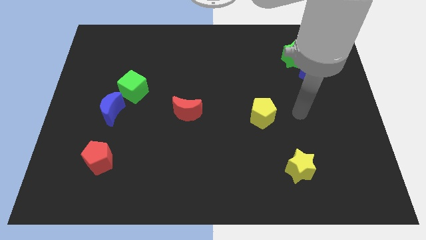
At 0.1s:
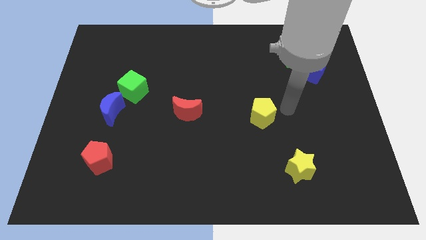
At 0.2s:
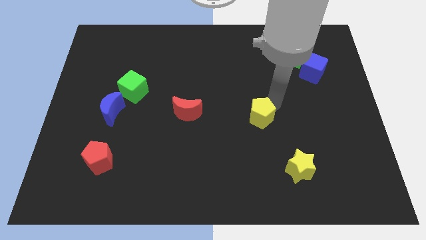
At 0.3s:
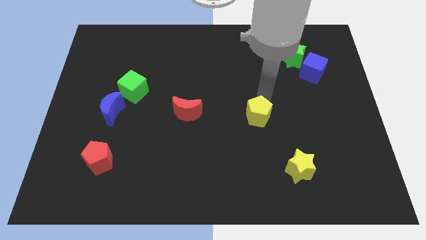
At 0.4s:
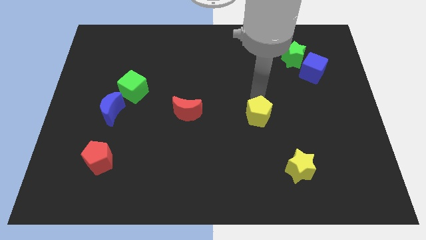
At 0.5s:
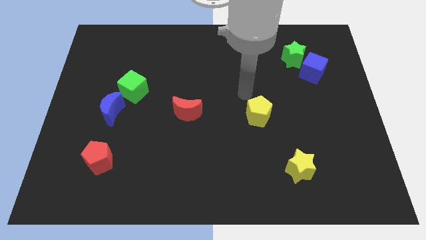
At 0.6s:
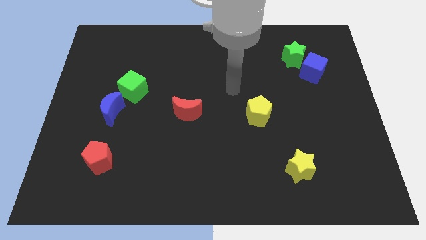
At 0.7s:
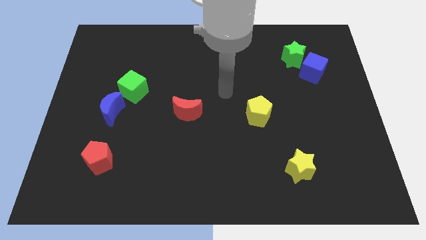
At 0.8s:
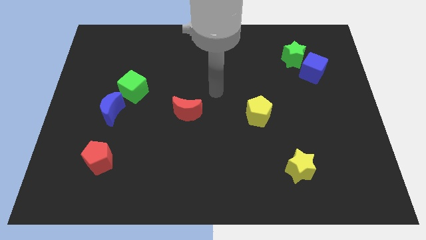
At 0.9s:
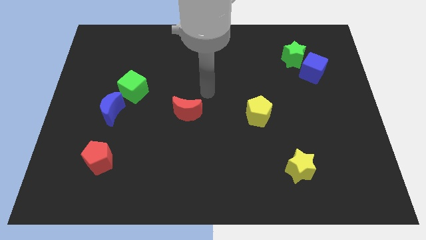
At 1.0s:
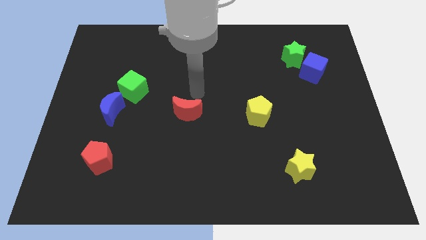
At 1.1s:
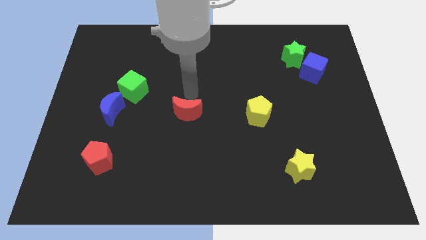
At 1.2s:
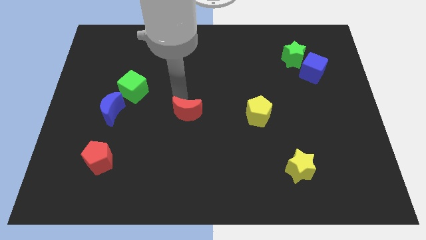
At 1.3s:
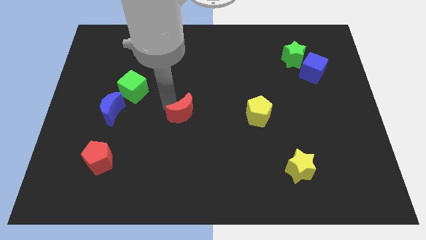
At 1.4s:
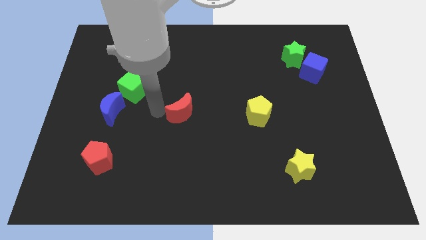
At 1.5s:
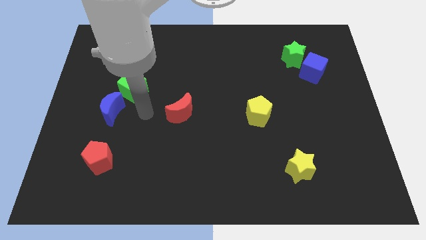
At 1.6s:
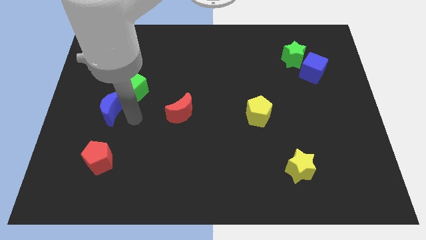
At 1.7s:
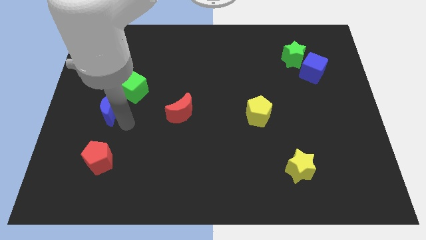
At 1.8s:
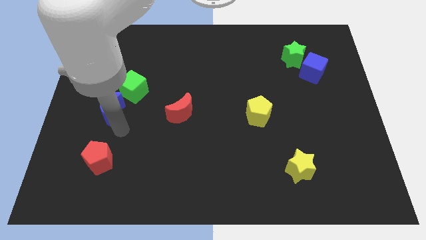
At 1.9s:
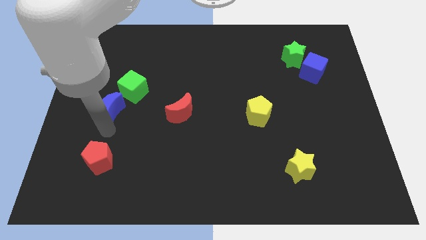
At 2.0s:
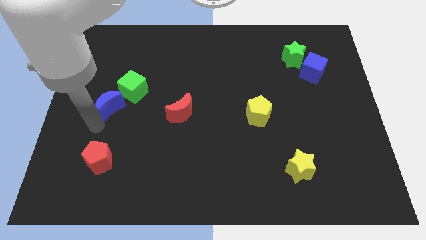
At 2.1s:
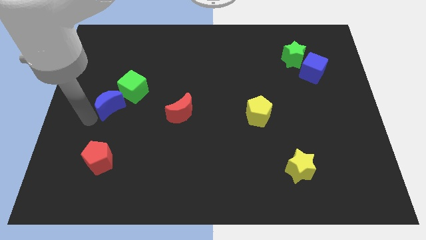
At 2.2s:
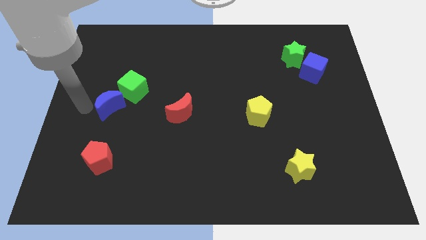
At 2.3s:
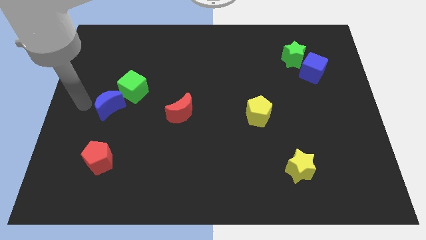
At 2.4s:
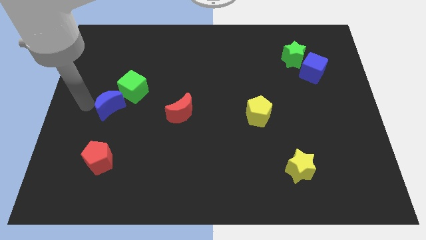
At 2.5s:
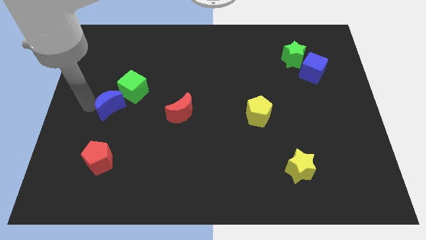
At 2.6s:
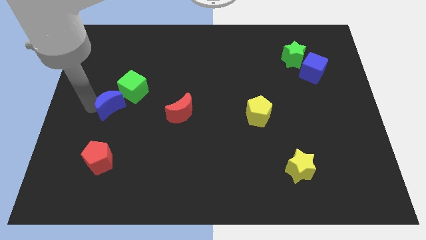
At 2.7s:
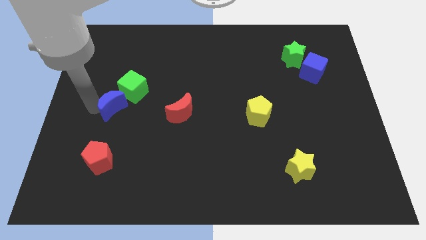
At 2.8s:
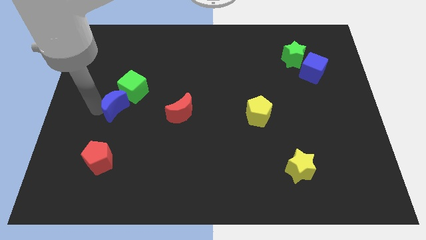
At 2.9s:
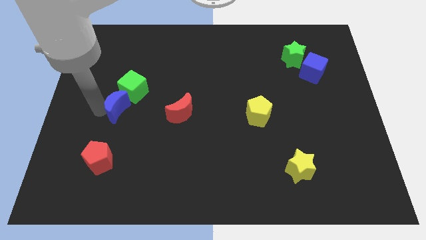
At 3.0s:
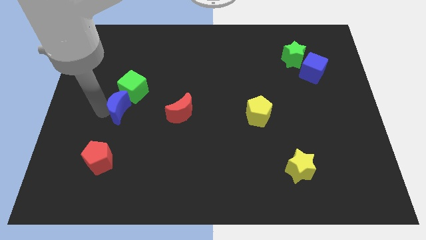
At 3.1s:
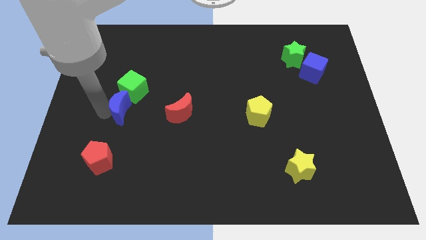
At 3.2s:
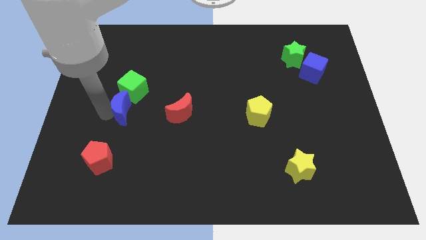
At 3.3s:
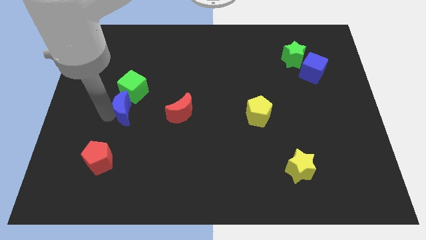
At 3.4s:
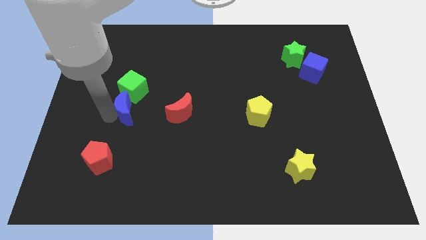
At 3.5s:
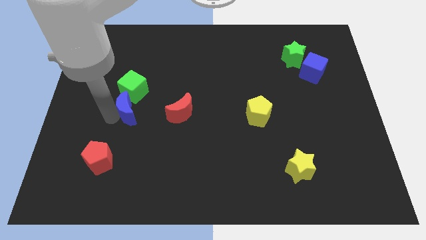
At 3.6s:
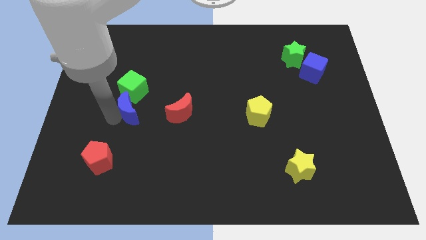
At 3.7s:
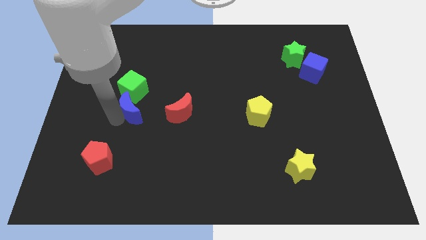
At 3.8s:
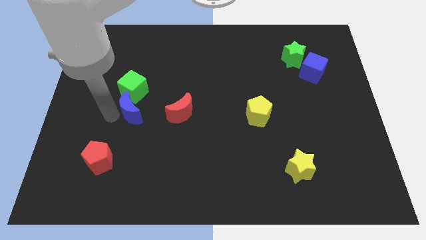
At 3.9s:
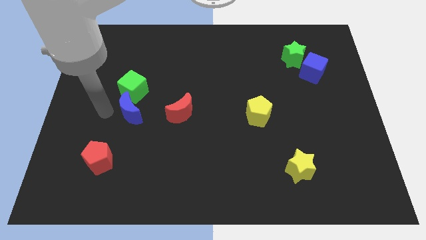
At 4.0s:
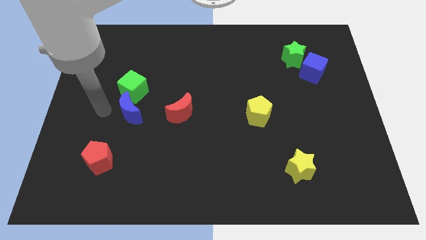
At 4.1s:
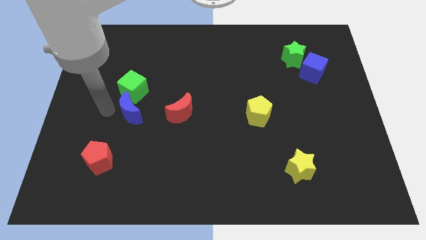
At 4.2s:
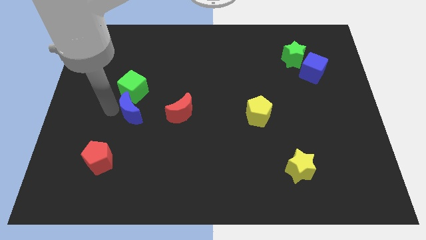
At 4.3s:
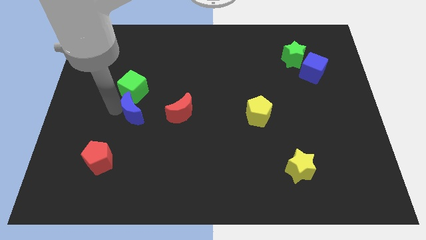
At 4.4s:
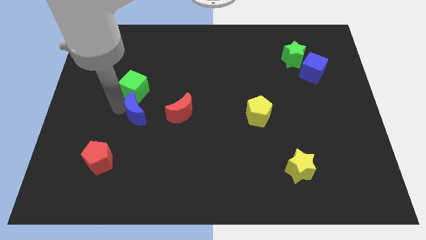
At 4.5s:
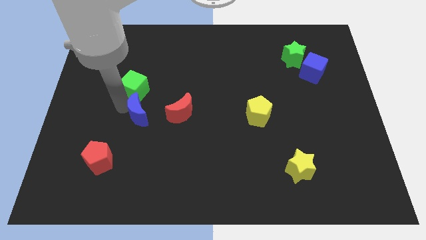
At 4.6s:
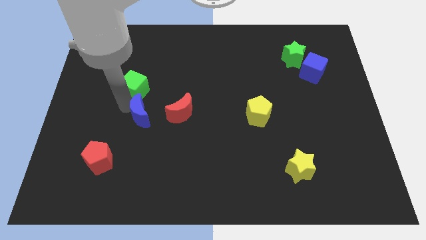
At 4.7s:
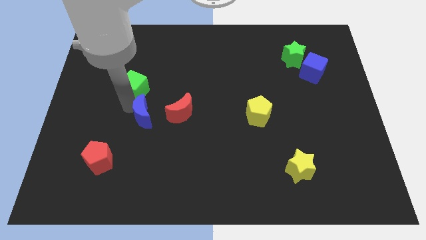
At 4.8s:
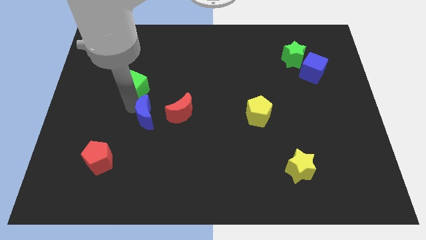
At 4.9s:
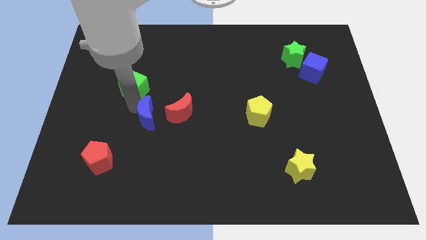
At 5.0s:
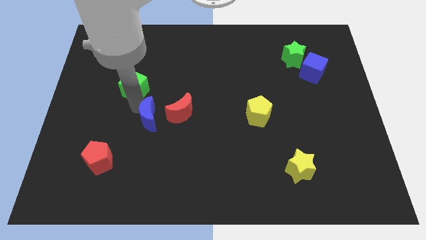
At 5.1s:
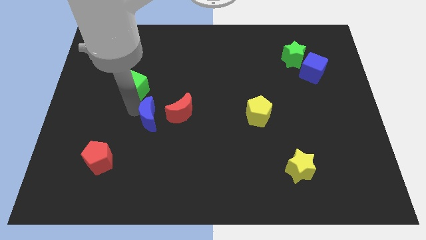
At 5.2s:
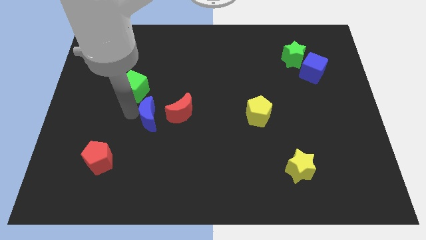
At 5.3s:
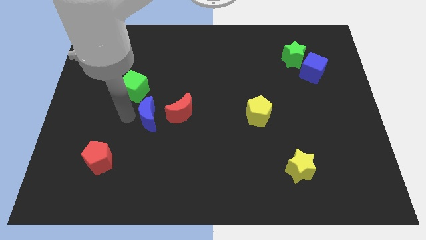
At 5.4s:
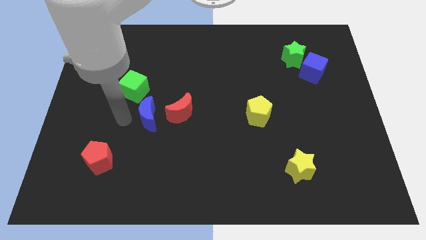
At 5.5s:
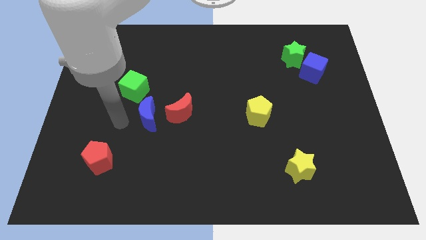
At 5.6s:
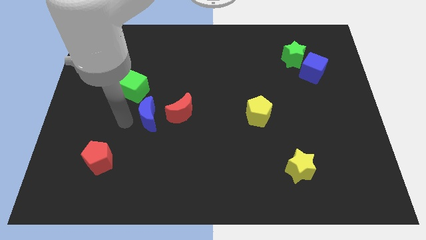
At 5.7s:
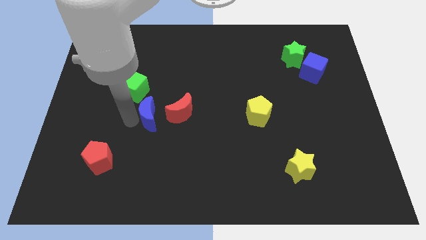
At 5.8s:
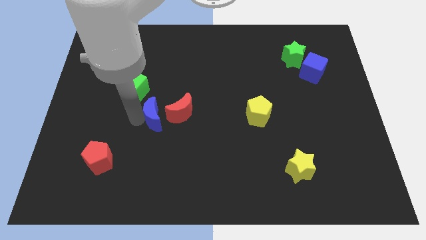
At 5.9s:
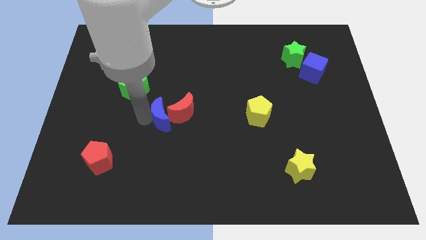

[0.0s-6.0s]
move the blue moon towards the red moon

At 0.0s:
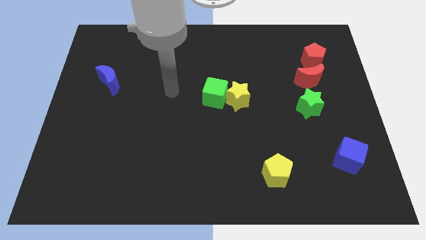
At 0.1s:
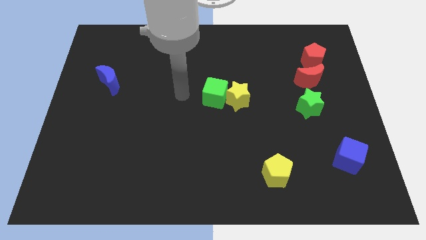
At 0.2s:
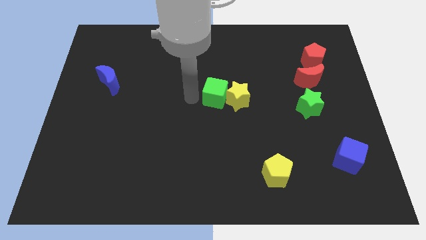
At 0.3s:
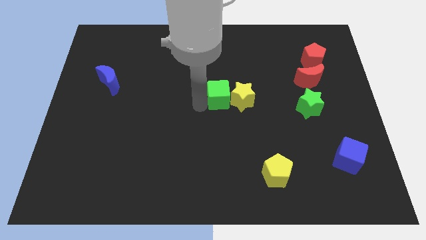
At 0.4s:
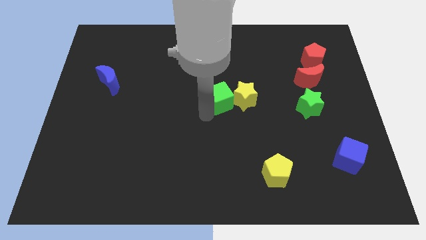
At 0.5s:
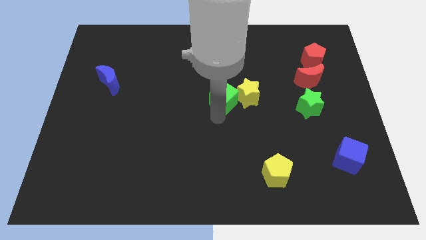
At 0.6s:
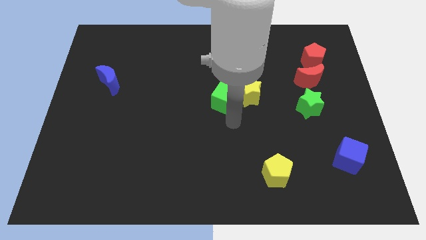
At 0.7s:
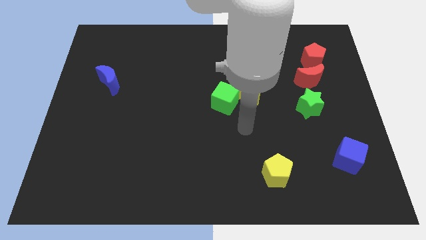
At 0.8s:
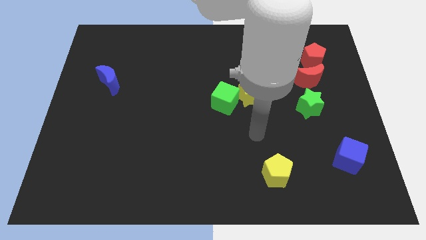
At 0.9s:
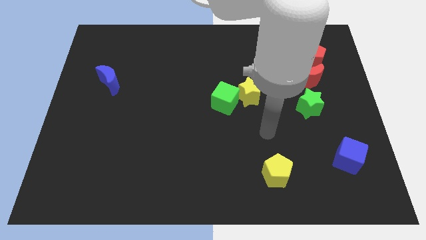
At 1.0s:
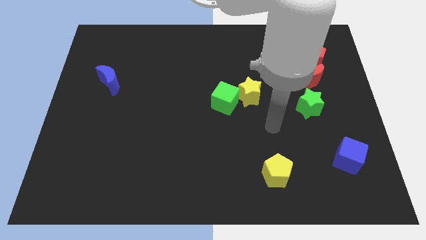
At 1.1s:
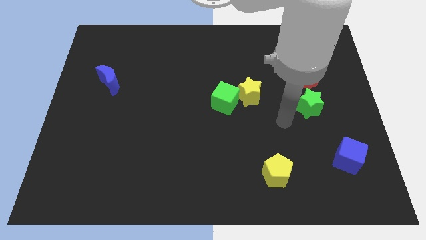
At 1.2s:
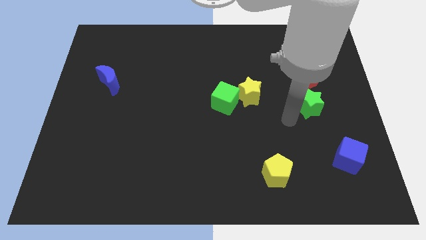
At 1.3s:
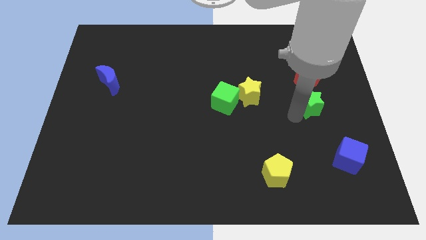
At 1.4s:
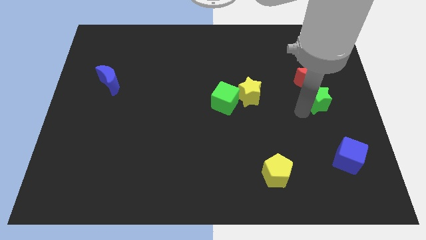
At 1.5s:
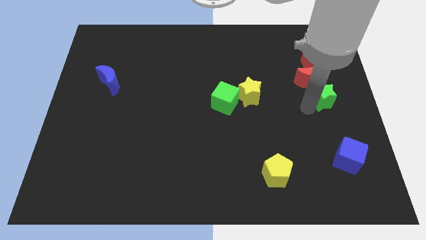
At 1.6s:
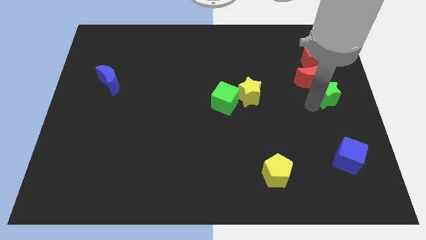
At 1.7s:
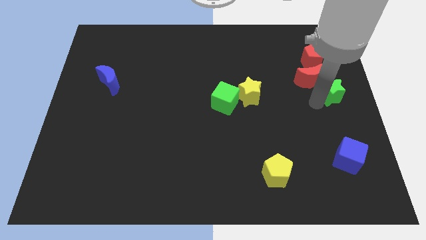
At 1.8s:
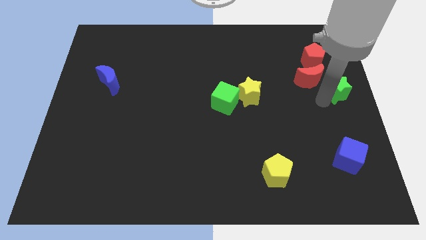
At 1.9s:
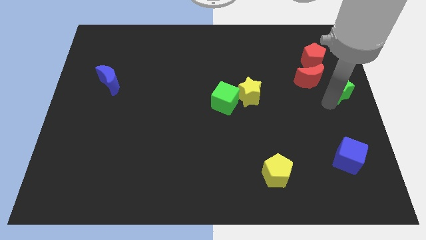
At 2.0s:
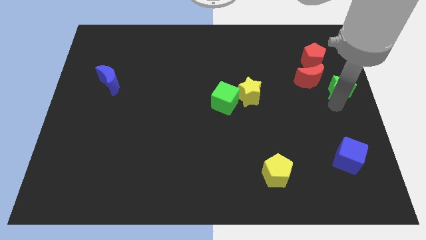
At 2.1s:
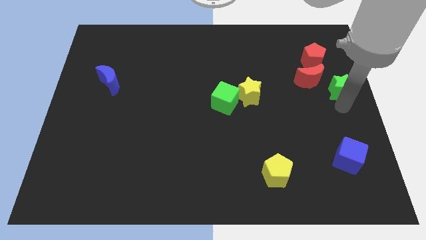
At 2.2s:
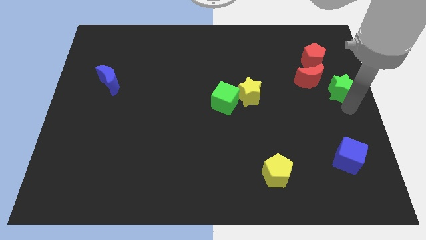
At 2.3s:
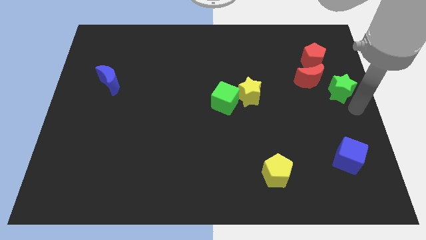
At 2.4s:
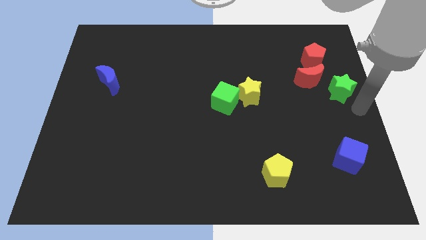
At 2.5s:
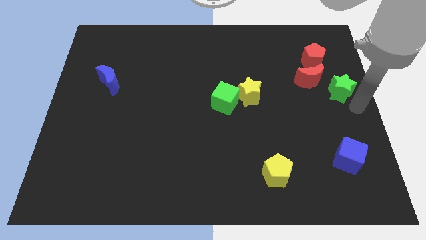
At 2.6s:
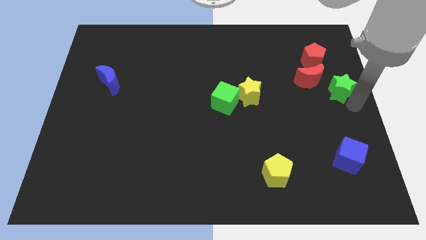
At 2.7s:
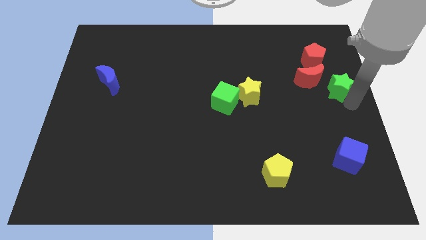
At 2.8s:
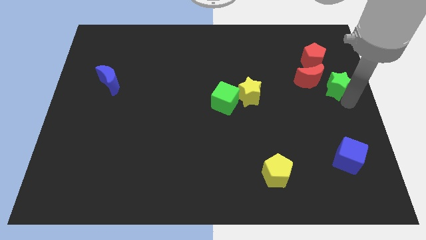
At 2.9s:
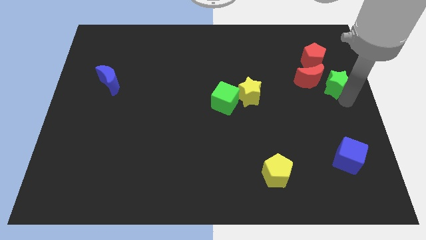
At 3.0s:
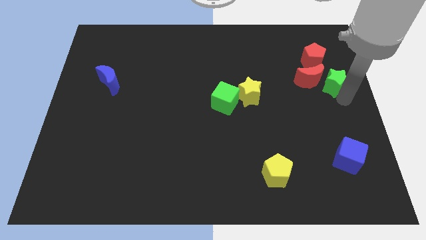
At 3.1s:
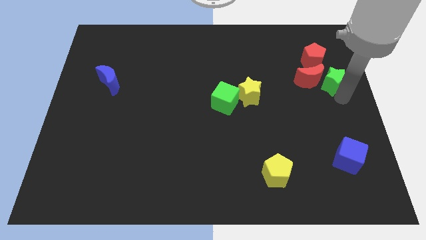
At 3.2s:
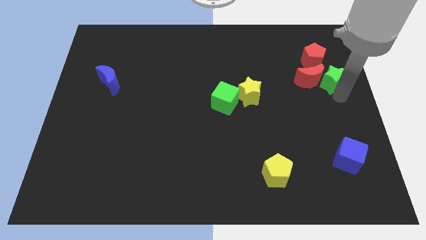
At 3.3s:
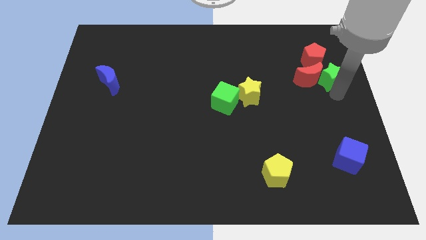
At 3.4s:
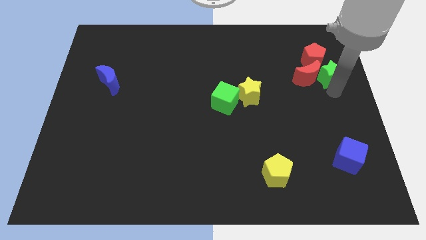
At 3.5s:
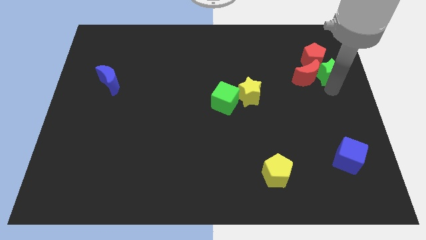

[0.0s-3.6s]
push the green star to the red pentagon
